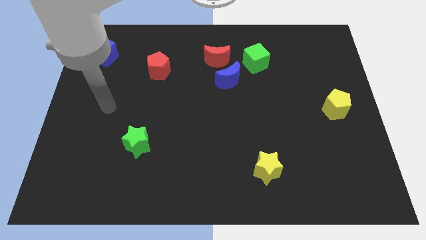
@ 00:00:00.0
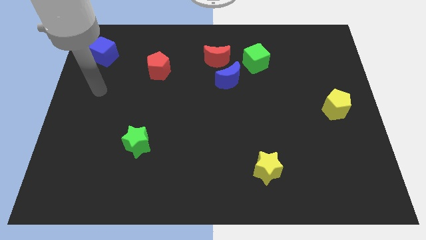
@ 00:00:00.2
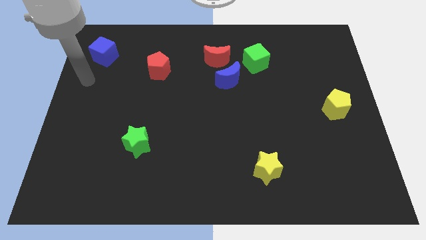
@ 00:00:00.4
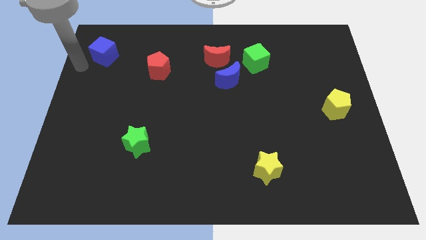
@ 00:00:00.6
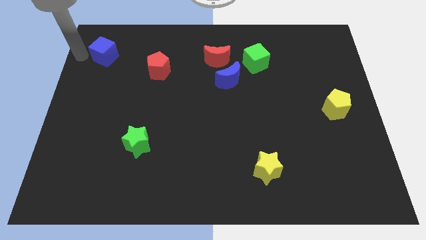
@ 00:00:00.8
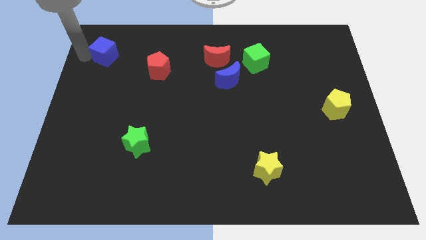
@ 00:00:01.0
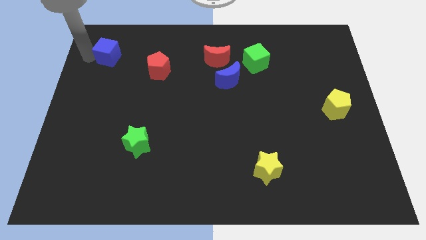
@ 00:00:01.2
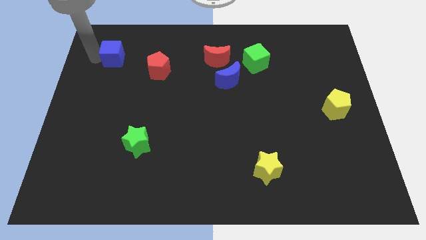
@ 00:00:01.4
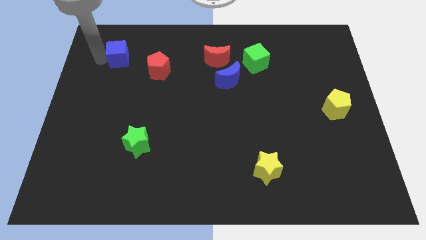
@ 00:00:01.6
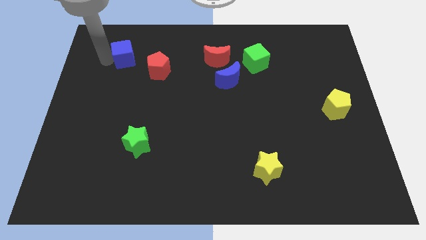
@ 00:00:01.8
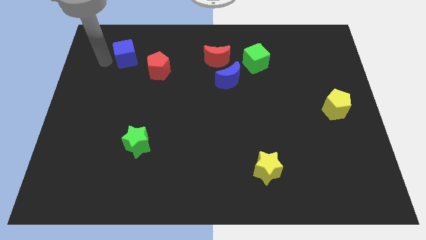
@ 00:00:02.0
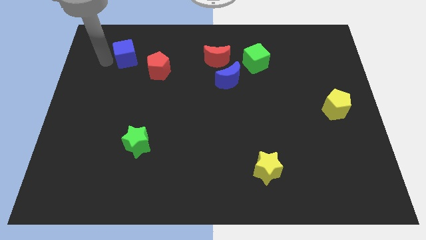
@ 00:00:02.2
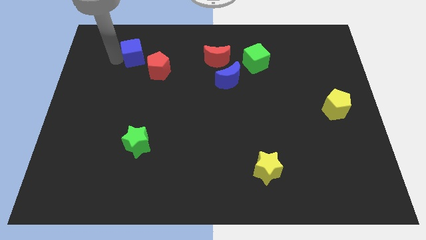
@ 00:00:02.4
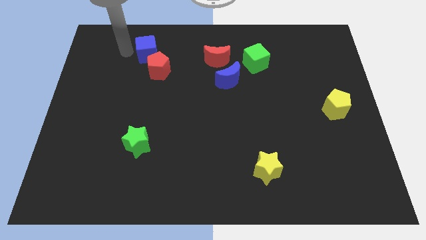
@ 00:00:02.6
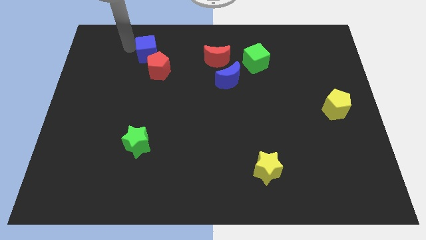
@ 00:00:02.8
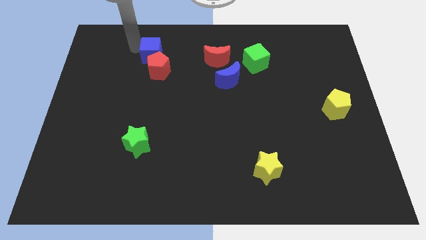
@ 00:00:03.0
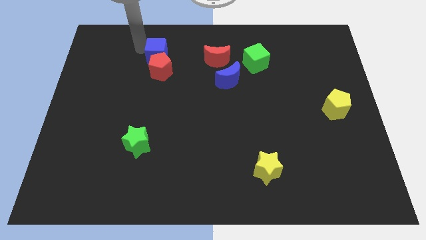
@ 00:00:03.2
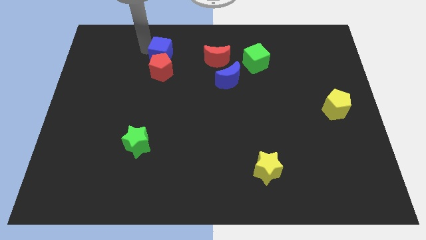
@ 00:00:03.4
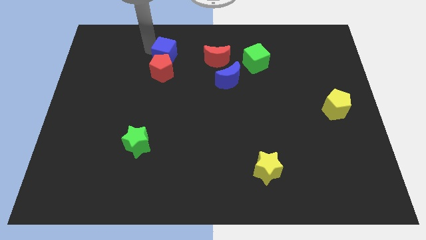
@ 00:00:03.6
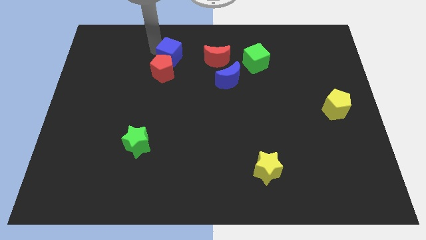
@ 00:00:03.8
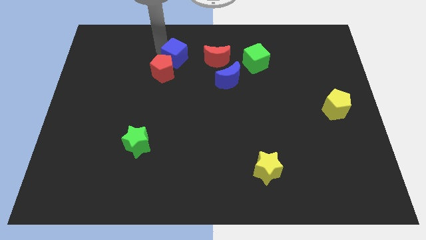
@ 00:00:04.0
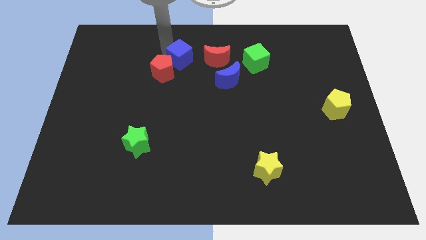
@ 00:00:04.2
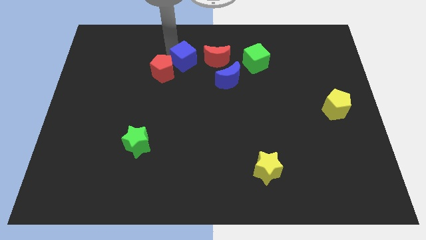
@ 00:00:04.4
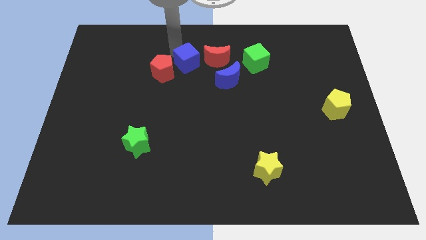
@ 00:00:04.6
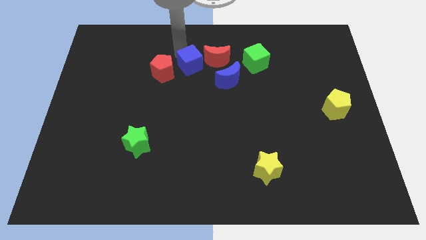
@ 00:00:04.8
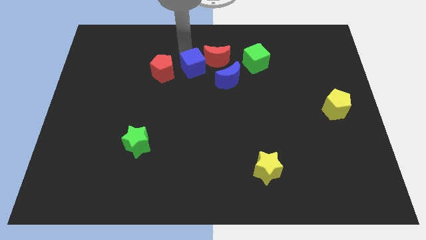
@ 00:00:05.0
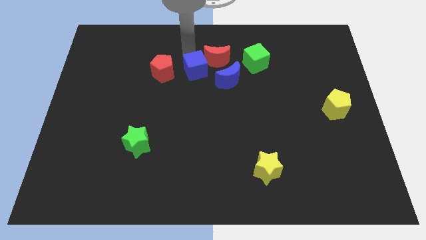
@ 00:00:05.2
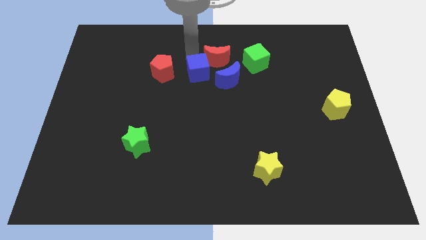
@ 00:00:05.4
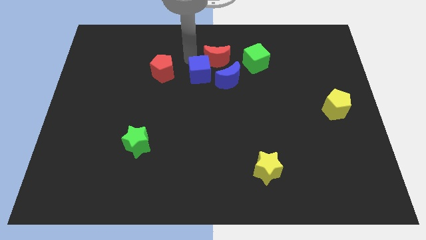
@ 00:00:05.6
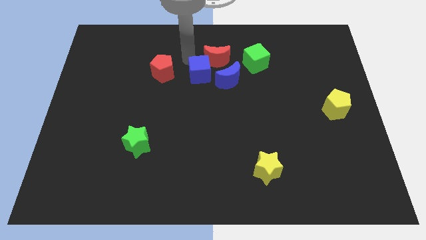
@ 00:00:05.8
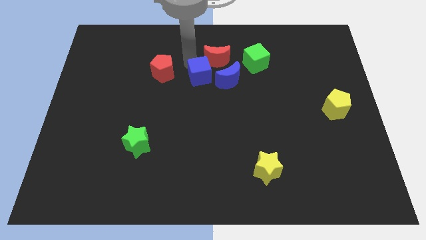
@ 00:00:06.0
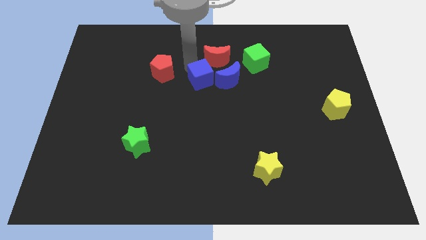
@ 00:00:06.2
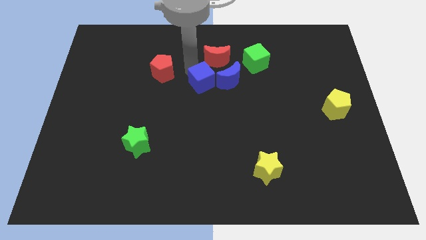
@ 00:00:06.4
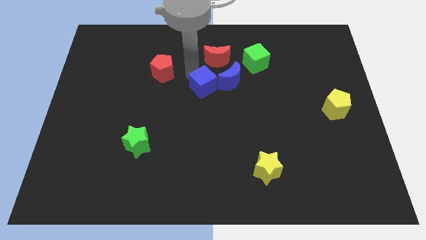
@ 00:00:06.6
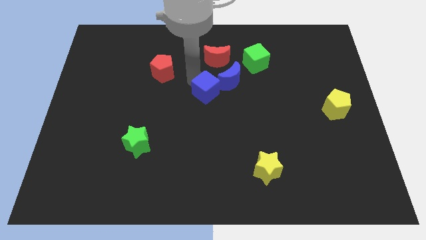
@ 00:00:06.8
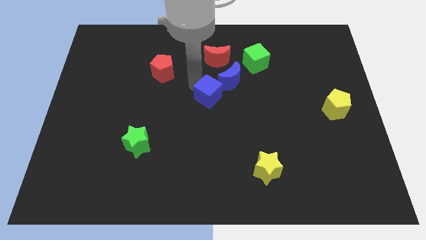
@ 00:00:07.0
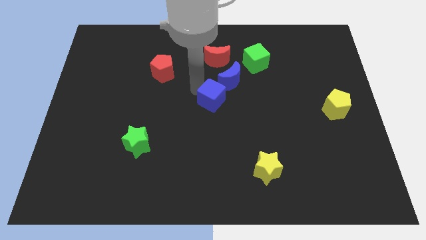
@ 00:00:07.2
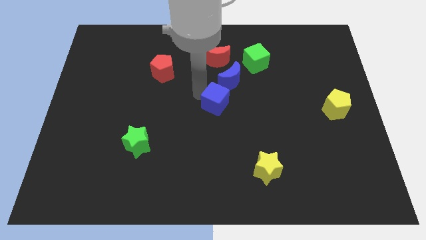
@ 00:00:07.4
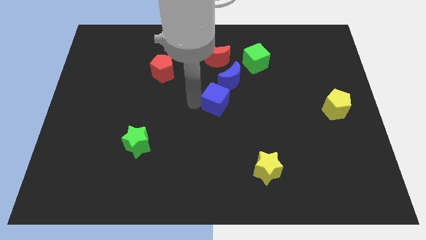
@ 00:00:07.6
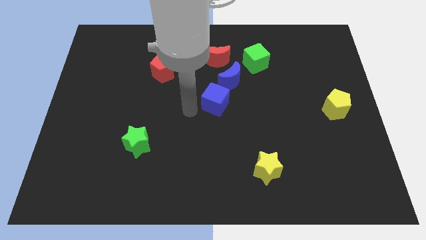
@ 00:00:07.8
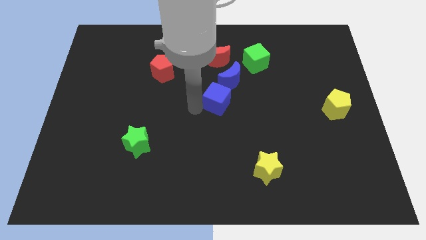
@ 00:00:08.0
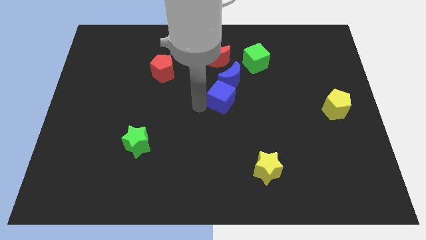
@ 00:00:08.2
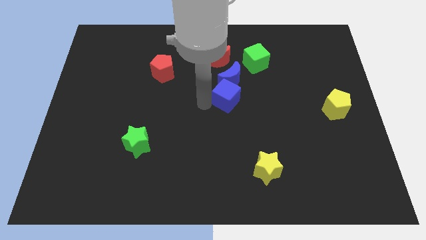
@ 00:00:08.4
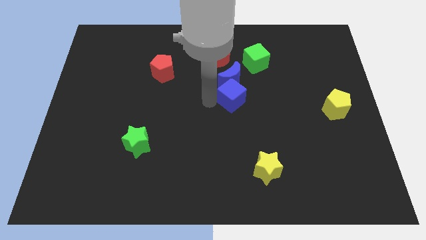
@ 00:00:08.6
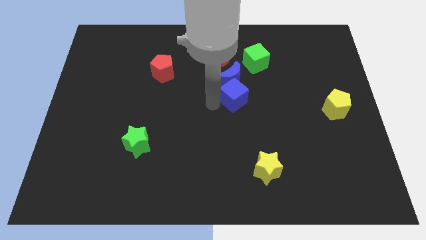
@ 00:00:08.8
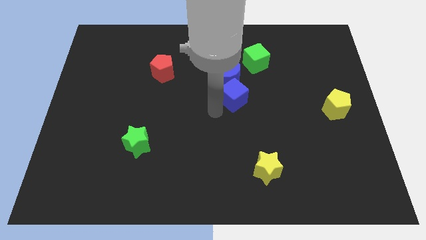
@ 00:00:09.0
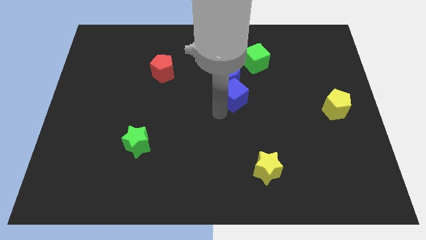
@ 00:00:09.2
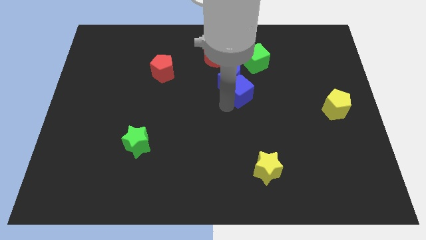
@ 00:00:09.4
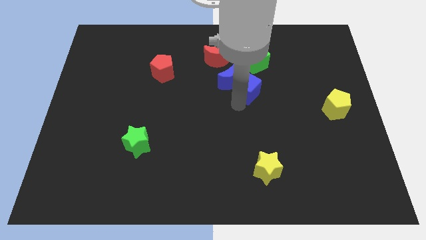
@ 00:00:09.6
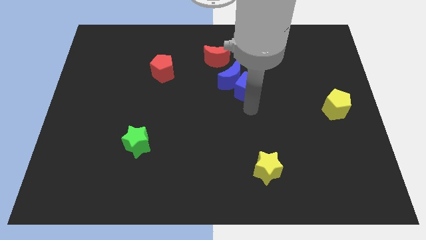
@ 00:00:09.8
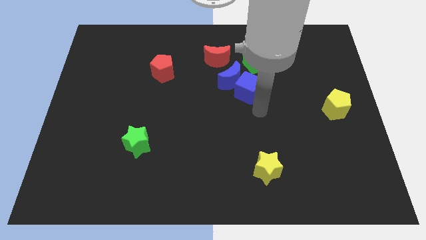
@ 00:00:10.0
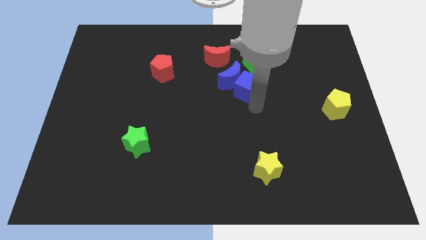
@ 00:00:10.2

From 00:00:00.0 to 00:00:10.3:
put the blue cube to the bottom right of the red moon

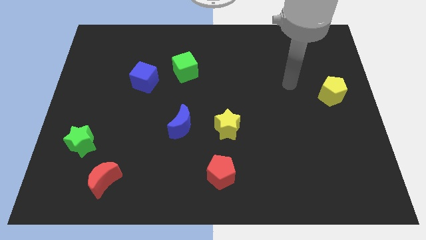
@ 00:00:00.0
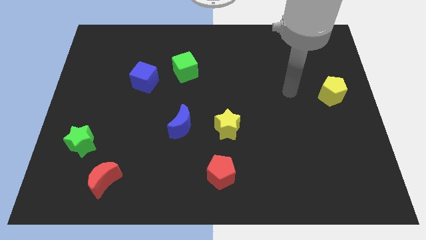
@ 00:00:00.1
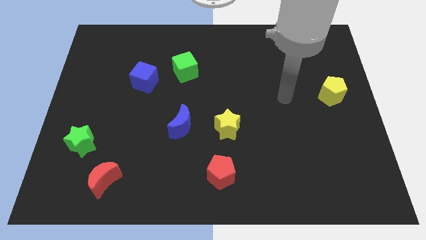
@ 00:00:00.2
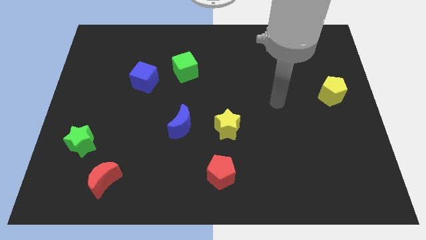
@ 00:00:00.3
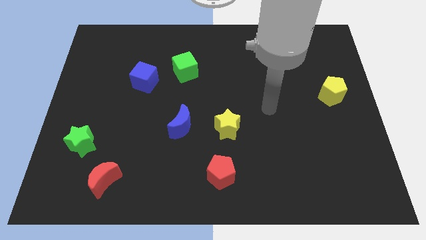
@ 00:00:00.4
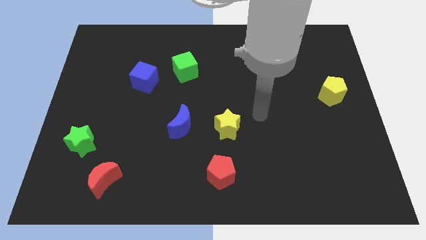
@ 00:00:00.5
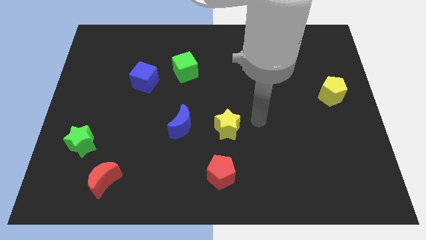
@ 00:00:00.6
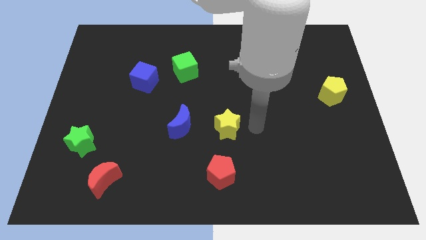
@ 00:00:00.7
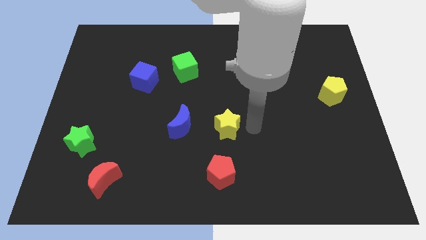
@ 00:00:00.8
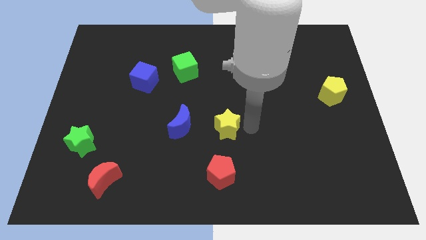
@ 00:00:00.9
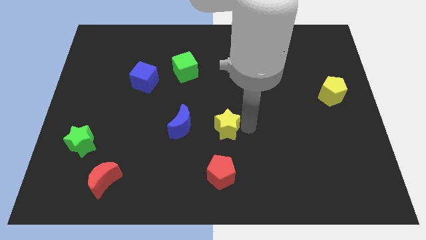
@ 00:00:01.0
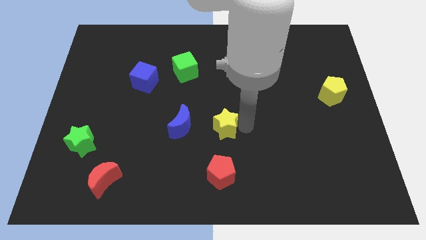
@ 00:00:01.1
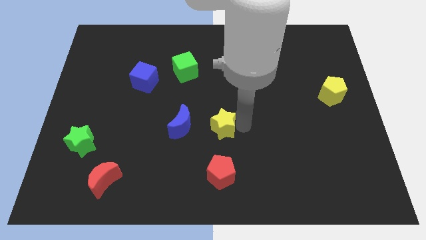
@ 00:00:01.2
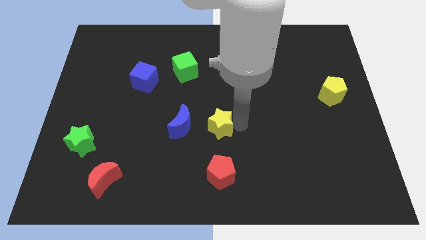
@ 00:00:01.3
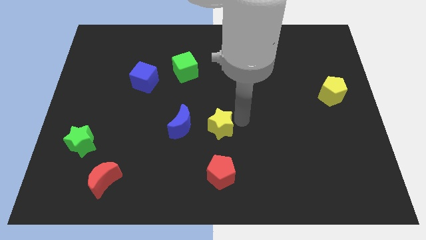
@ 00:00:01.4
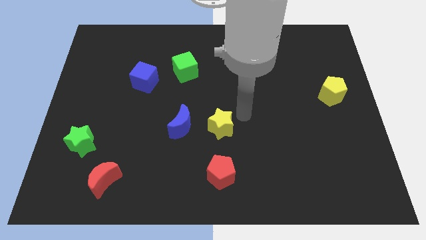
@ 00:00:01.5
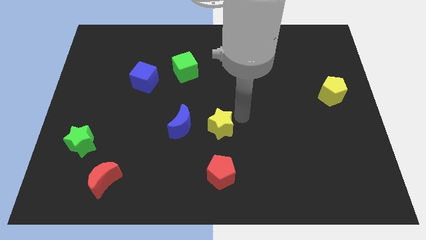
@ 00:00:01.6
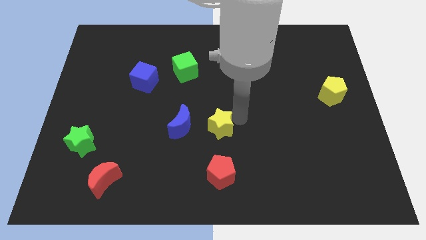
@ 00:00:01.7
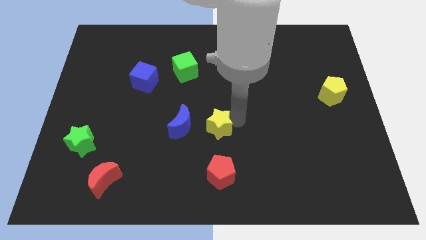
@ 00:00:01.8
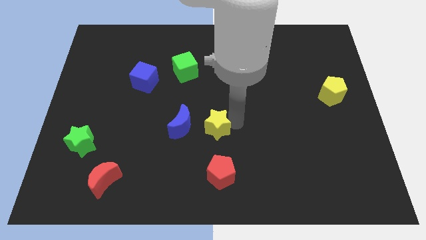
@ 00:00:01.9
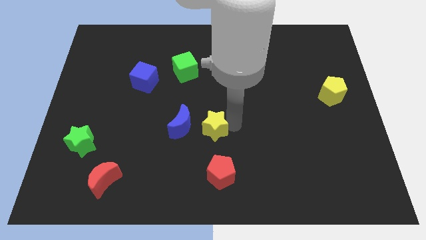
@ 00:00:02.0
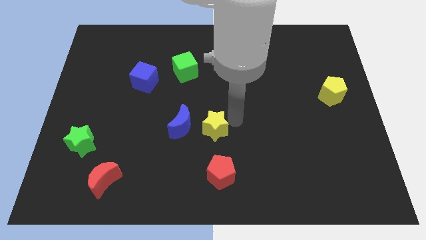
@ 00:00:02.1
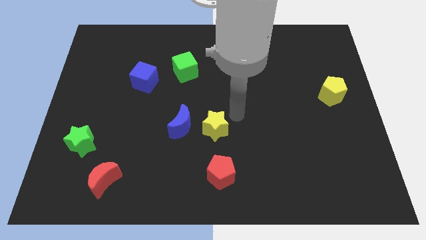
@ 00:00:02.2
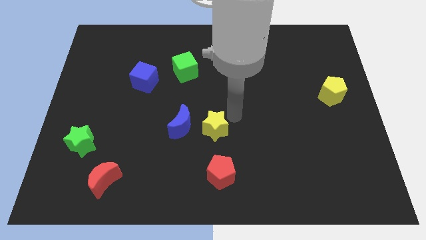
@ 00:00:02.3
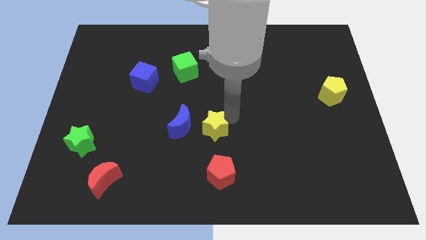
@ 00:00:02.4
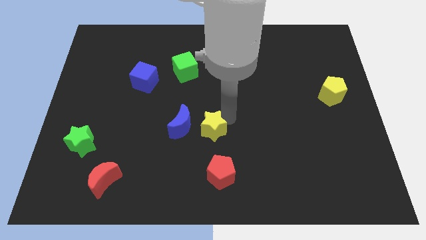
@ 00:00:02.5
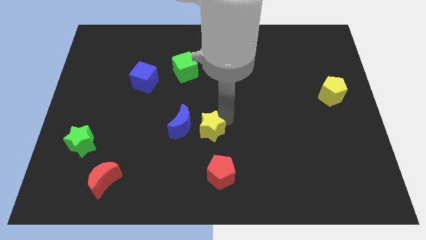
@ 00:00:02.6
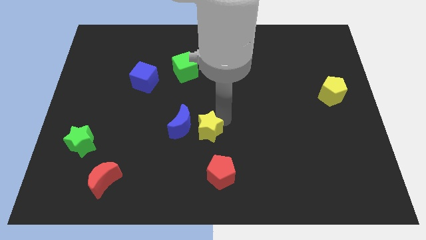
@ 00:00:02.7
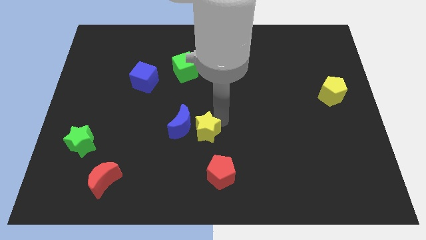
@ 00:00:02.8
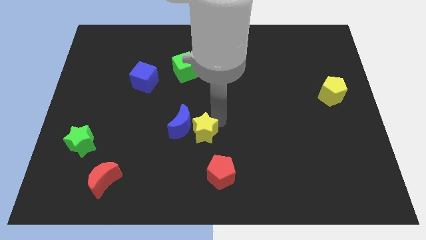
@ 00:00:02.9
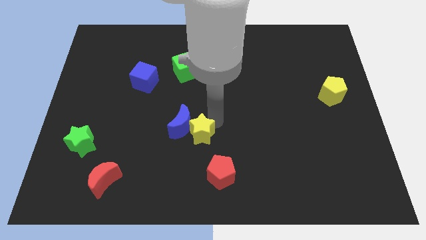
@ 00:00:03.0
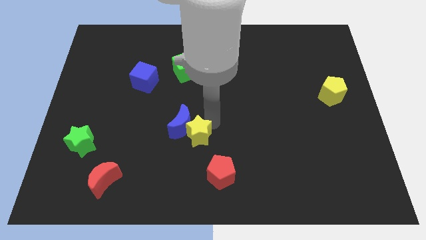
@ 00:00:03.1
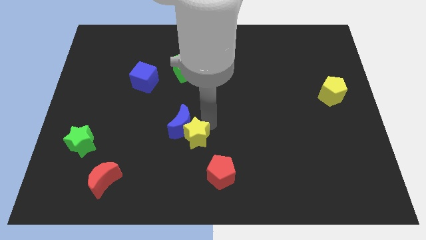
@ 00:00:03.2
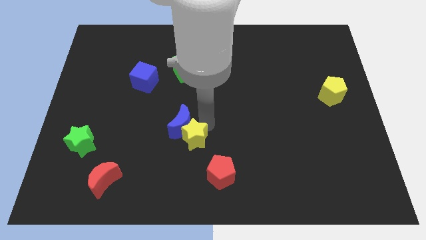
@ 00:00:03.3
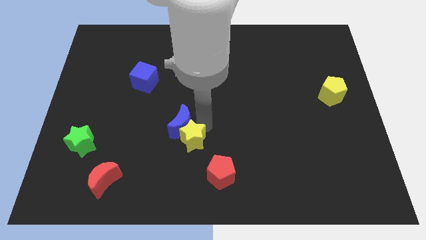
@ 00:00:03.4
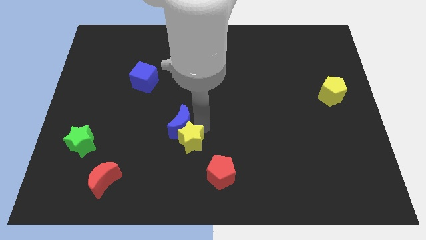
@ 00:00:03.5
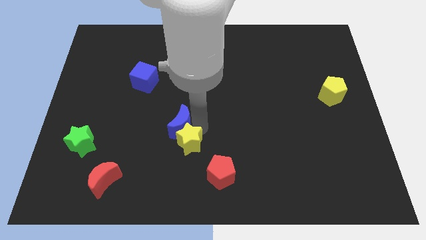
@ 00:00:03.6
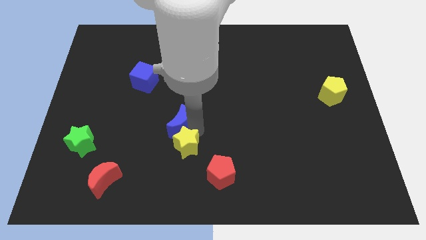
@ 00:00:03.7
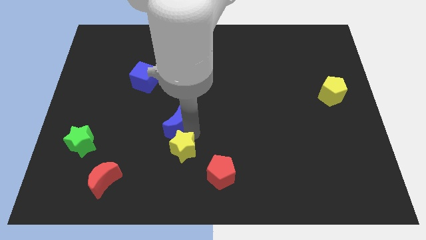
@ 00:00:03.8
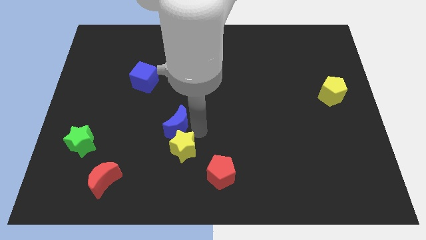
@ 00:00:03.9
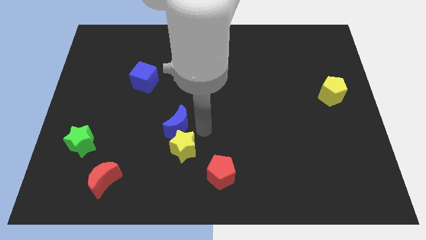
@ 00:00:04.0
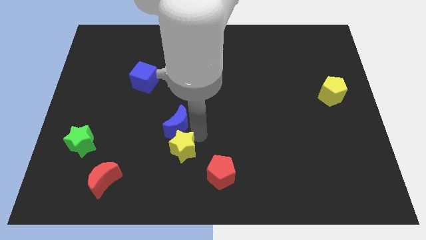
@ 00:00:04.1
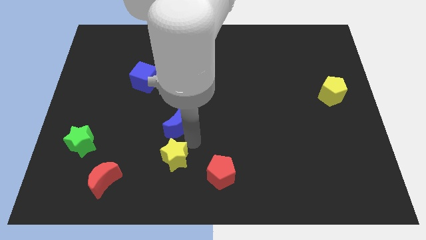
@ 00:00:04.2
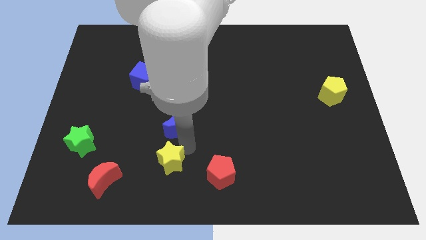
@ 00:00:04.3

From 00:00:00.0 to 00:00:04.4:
slide the yellow star just right of the red moon
